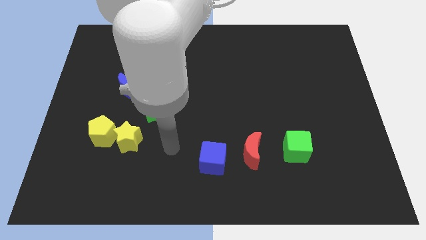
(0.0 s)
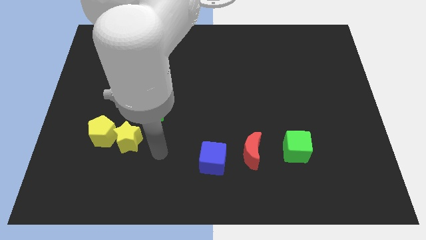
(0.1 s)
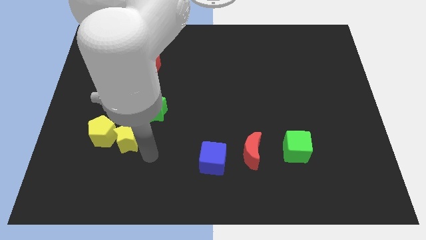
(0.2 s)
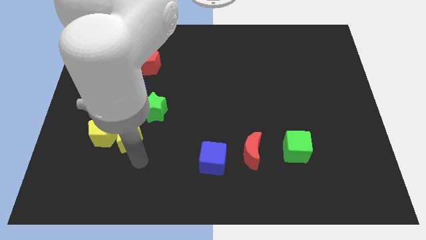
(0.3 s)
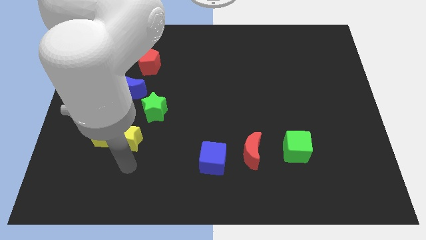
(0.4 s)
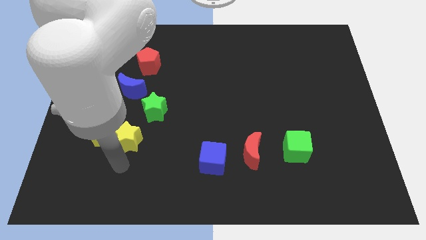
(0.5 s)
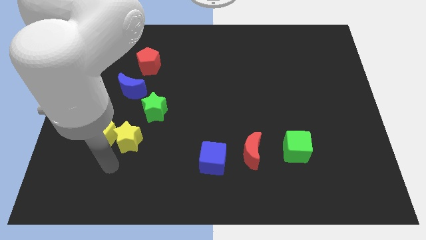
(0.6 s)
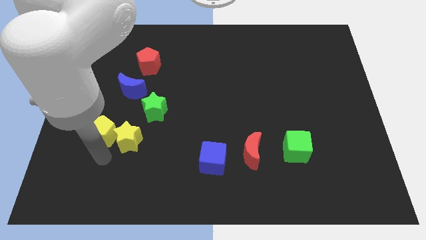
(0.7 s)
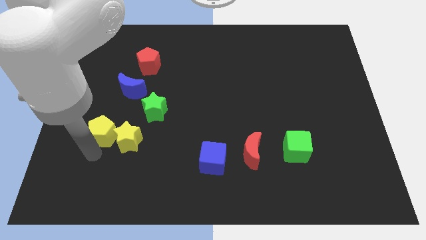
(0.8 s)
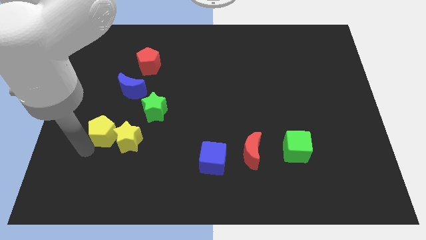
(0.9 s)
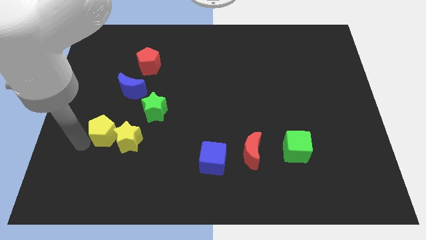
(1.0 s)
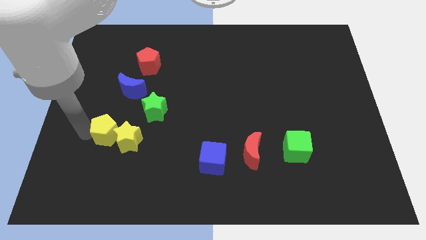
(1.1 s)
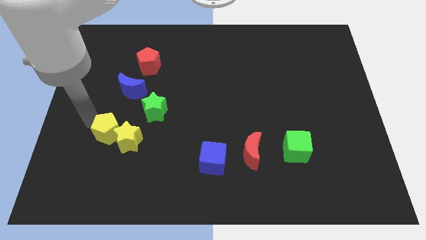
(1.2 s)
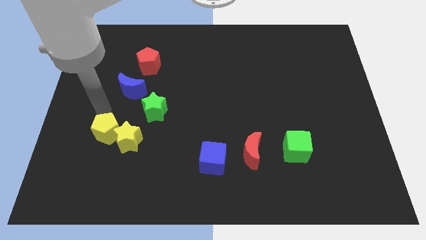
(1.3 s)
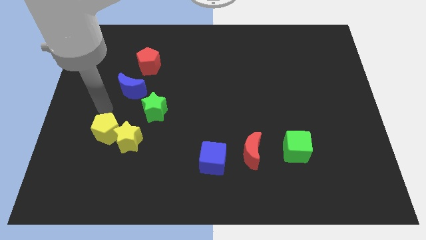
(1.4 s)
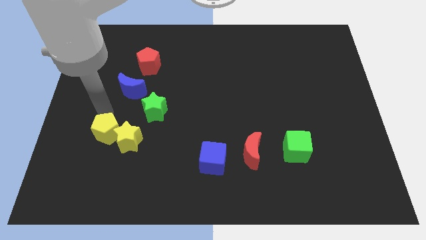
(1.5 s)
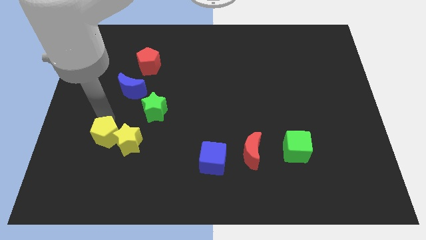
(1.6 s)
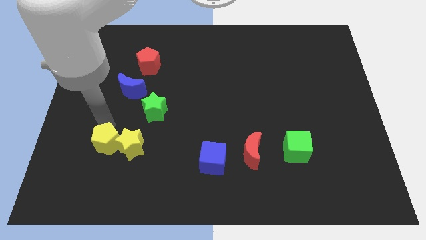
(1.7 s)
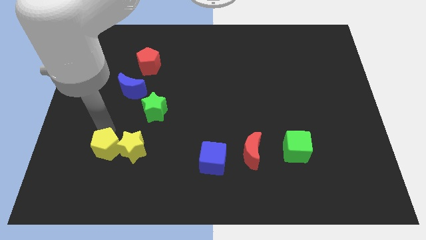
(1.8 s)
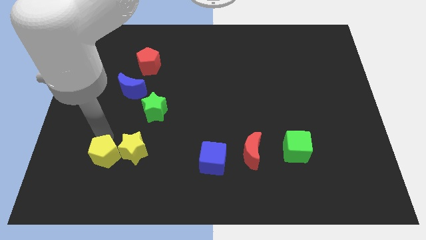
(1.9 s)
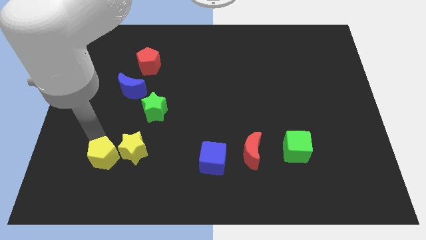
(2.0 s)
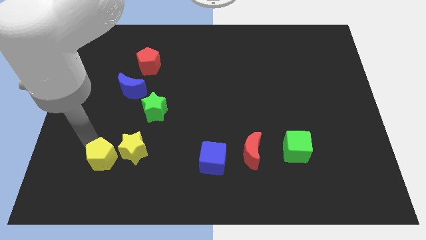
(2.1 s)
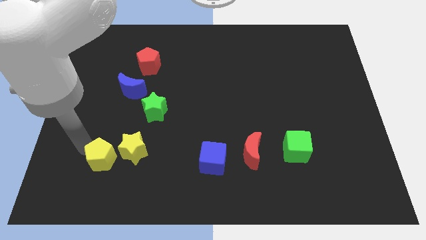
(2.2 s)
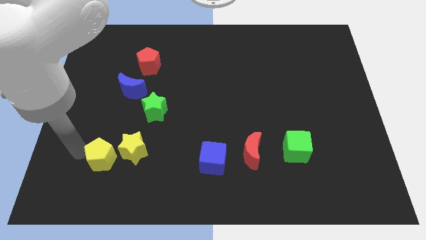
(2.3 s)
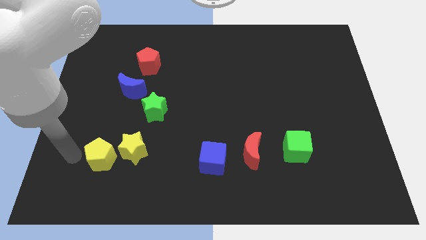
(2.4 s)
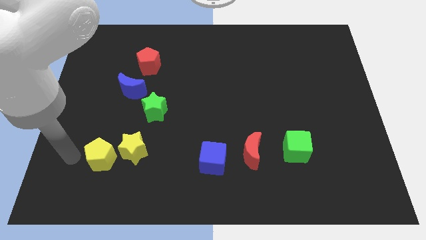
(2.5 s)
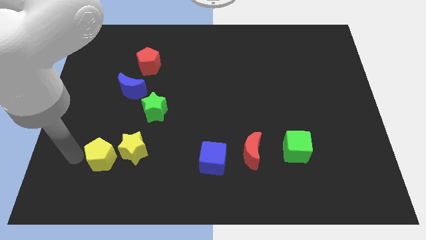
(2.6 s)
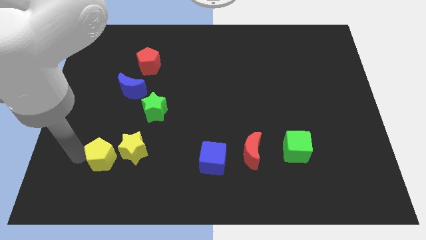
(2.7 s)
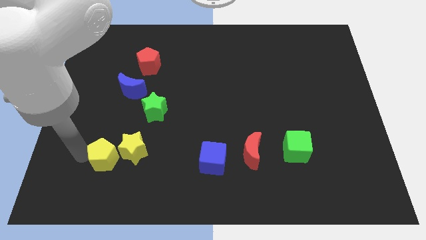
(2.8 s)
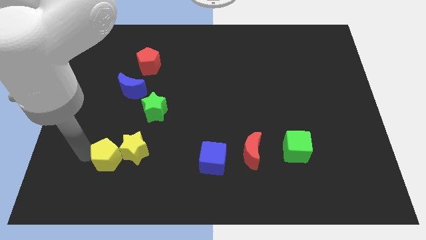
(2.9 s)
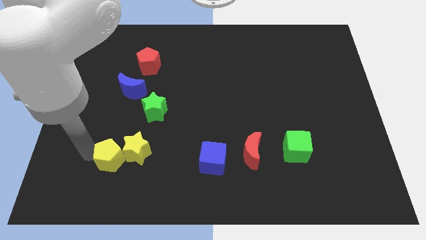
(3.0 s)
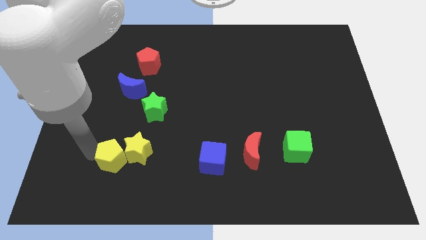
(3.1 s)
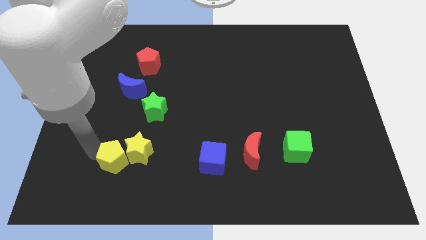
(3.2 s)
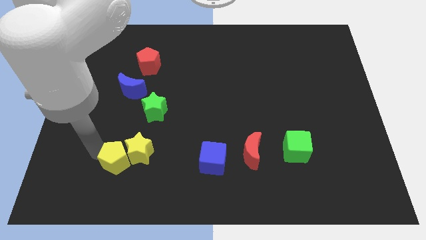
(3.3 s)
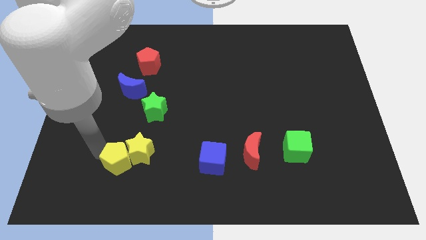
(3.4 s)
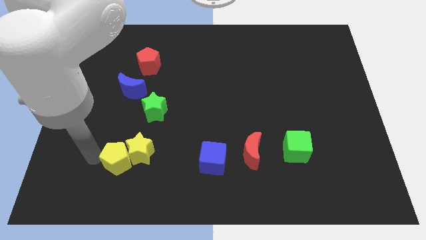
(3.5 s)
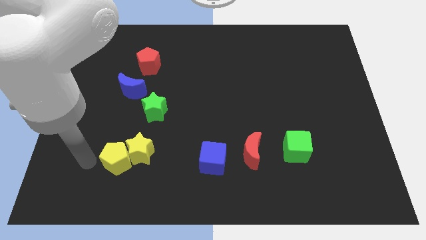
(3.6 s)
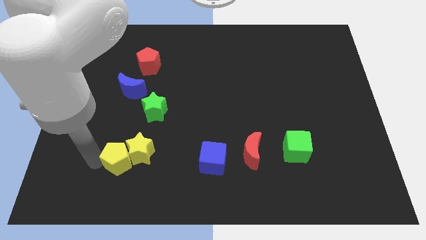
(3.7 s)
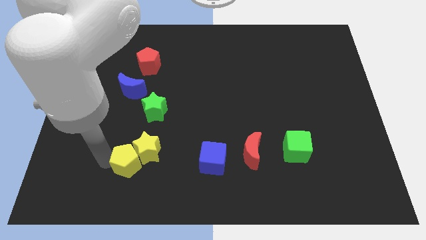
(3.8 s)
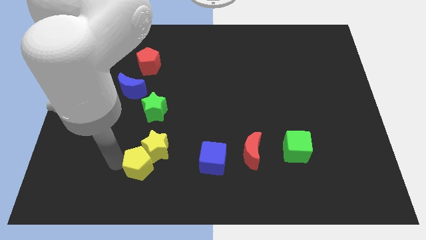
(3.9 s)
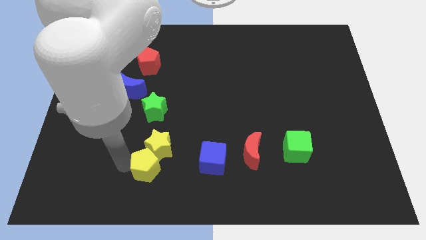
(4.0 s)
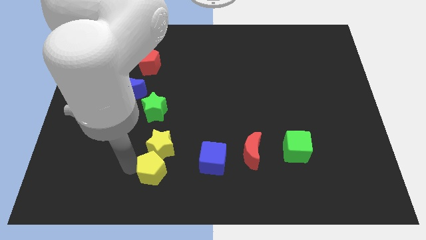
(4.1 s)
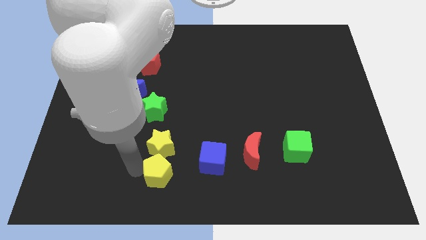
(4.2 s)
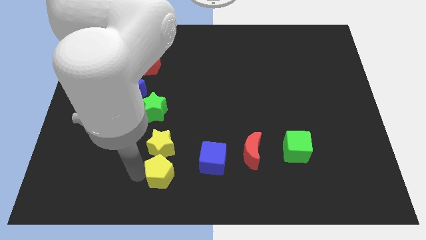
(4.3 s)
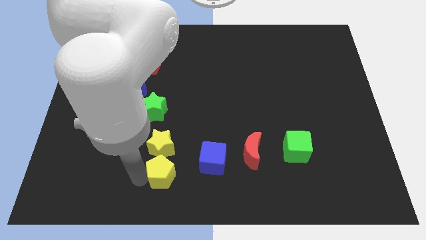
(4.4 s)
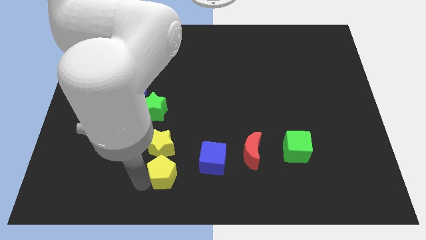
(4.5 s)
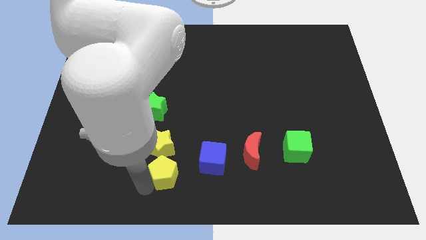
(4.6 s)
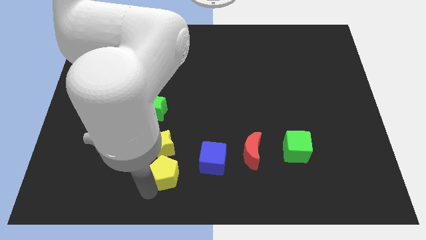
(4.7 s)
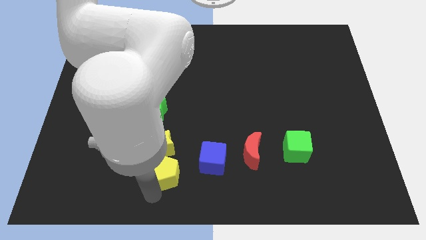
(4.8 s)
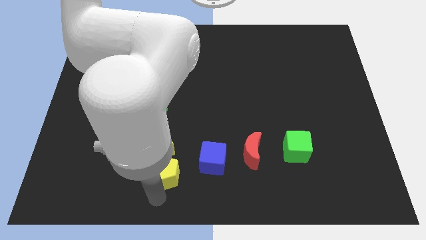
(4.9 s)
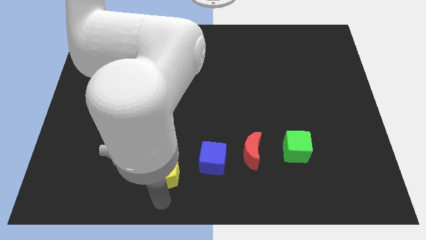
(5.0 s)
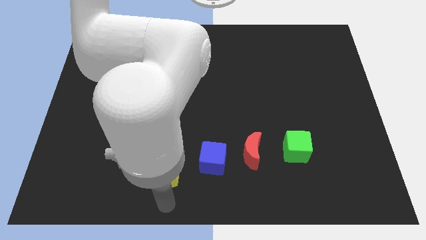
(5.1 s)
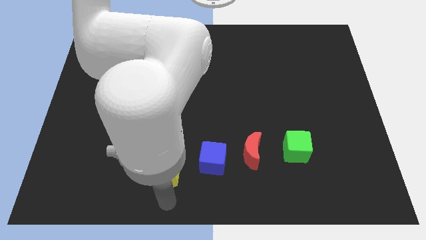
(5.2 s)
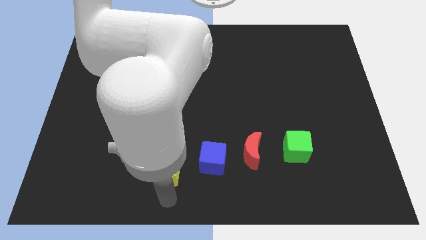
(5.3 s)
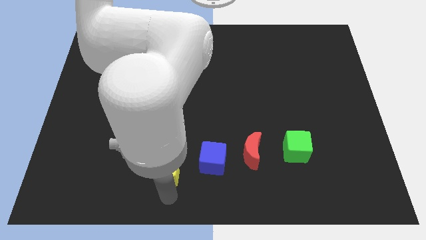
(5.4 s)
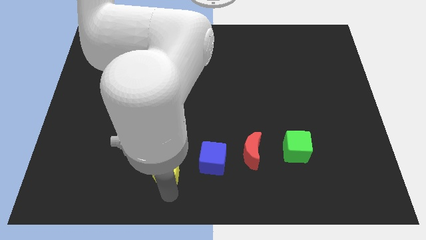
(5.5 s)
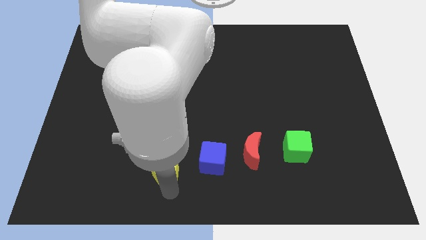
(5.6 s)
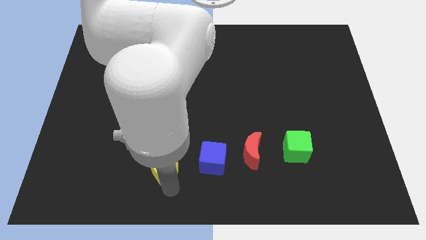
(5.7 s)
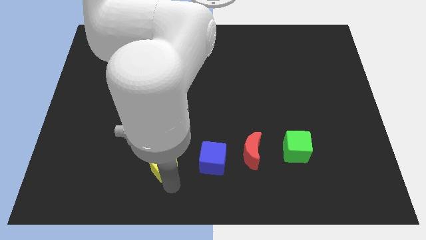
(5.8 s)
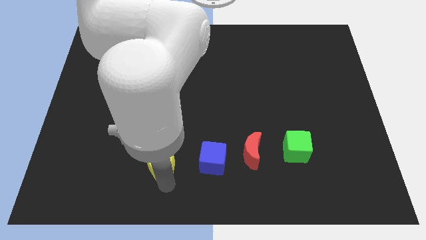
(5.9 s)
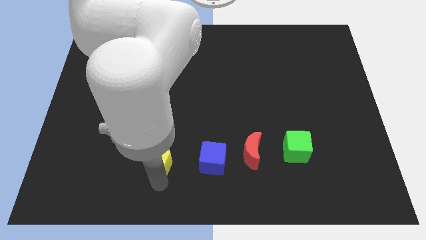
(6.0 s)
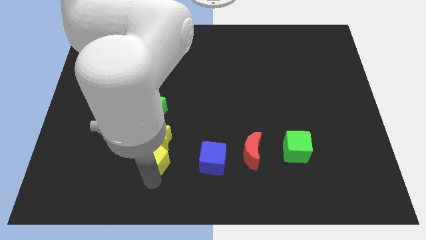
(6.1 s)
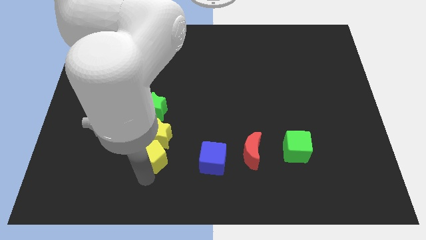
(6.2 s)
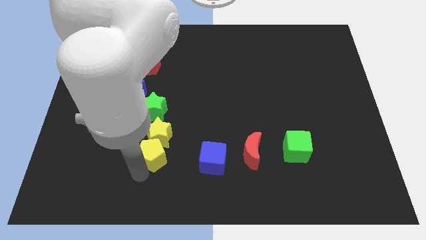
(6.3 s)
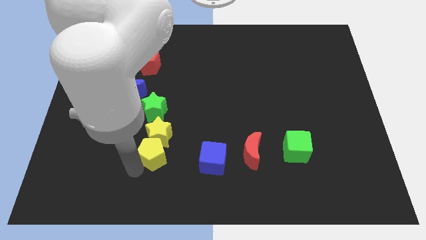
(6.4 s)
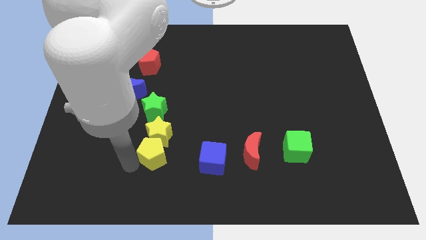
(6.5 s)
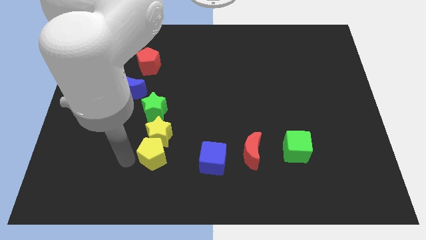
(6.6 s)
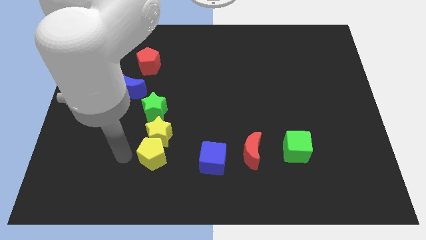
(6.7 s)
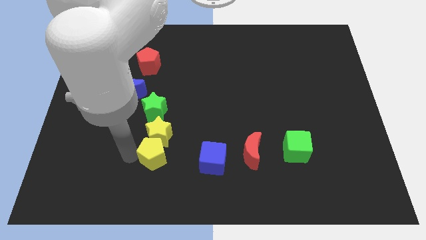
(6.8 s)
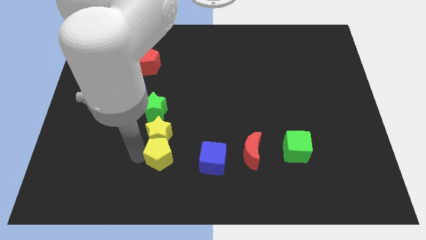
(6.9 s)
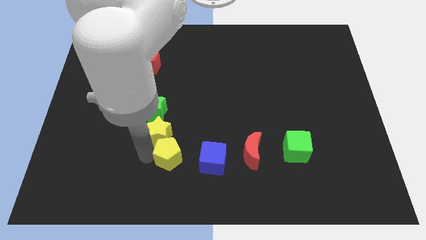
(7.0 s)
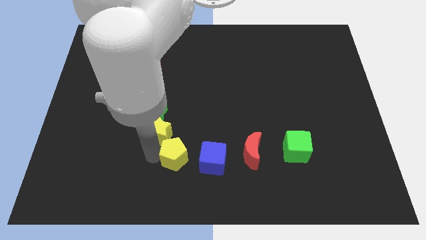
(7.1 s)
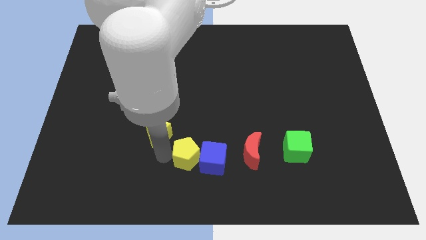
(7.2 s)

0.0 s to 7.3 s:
push the yellow pentagon next to the blue cube

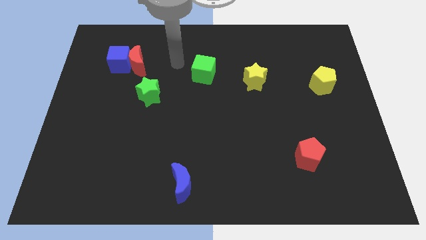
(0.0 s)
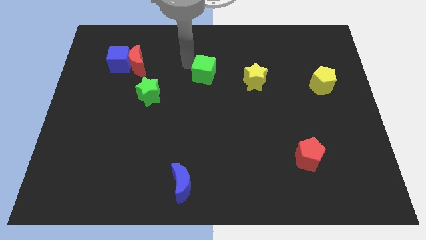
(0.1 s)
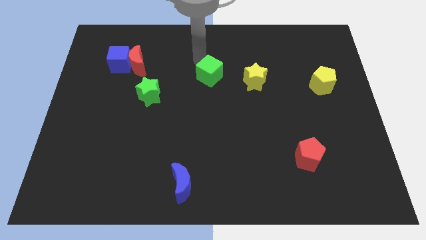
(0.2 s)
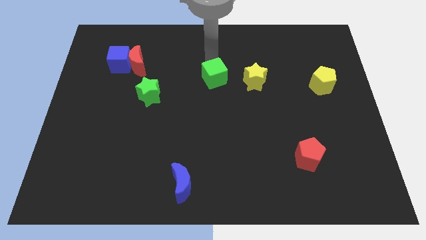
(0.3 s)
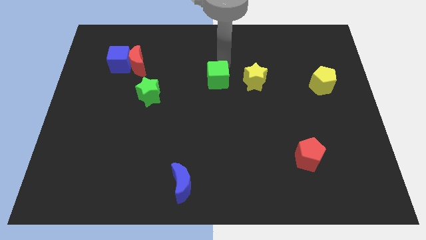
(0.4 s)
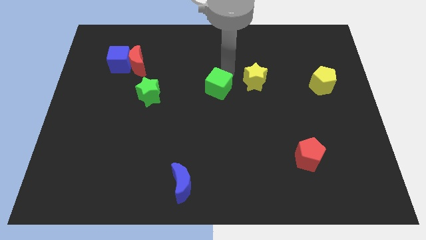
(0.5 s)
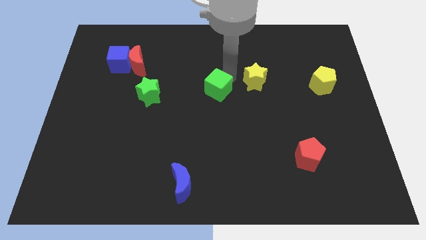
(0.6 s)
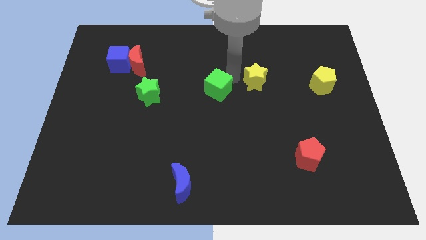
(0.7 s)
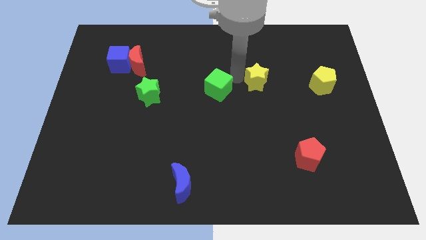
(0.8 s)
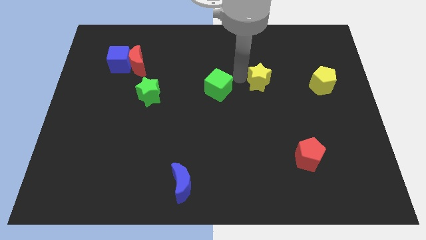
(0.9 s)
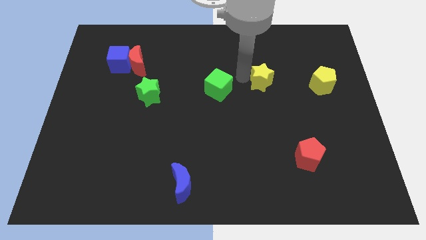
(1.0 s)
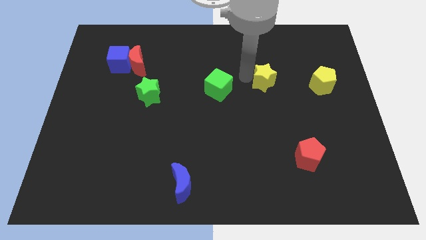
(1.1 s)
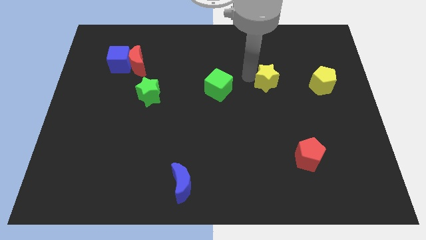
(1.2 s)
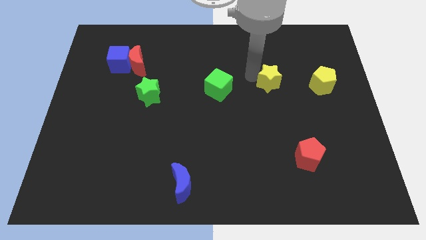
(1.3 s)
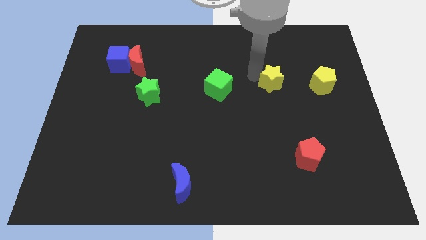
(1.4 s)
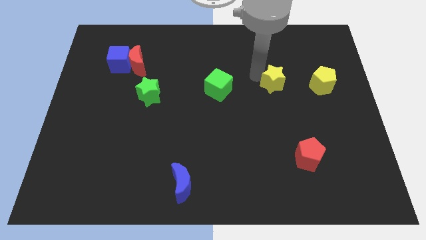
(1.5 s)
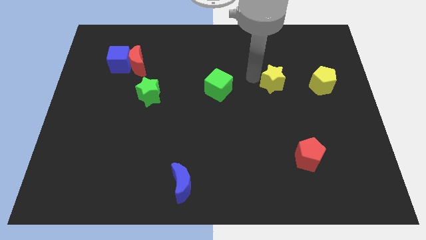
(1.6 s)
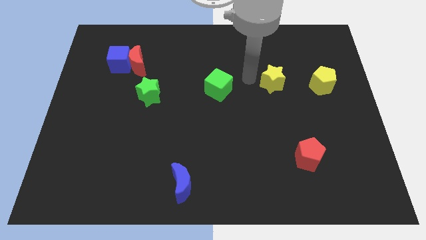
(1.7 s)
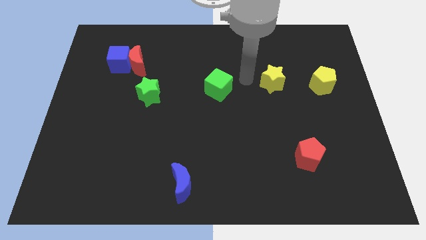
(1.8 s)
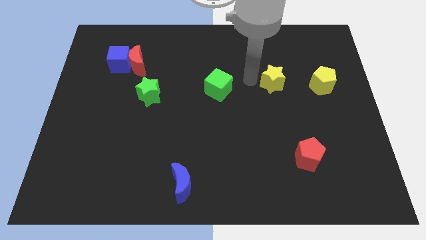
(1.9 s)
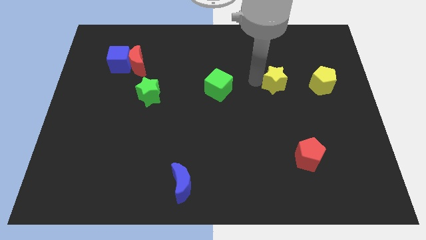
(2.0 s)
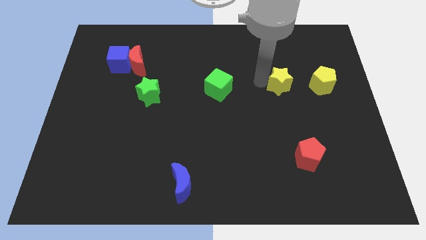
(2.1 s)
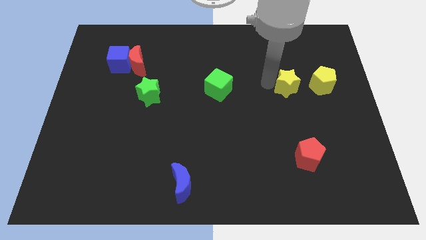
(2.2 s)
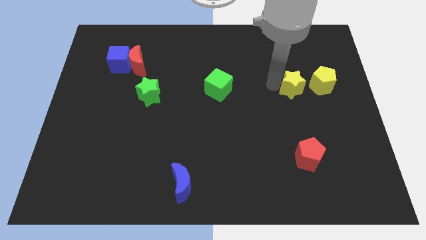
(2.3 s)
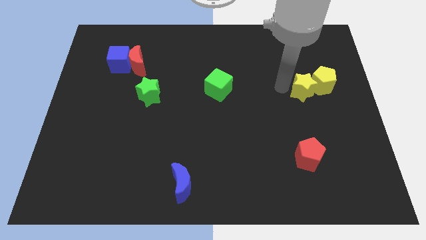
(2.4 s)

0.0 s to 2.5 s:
push the yellow star to the yellow pentagon
